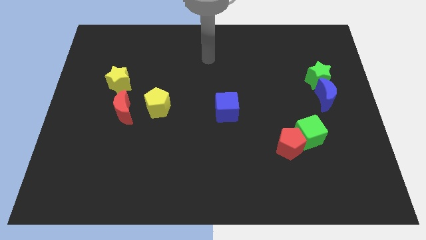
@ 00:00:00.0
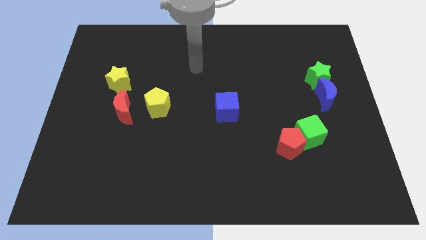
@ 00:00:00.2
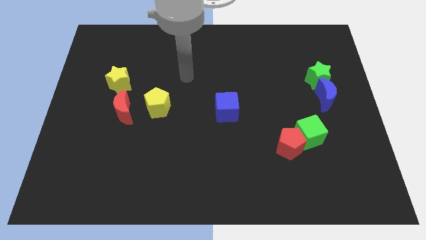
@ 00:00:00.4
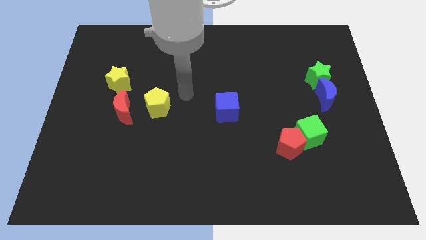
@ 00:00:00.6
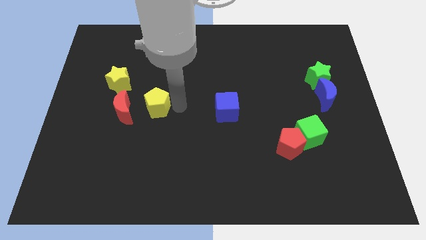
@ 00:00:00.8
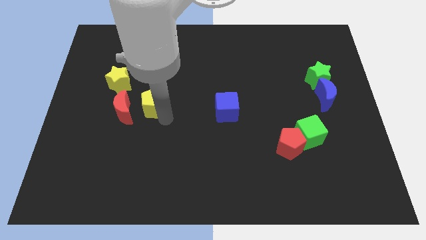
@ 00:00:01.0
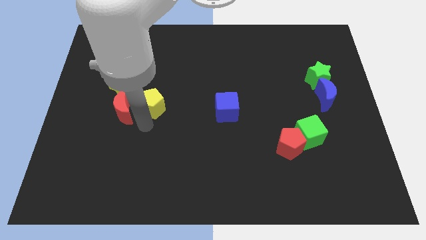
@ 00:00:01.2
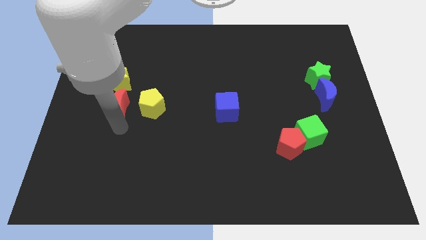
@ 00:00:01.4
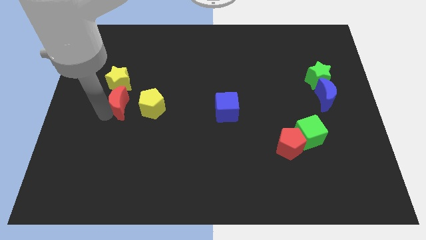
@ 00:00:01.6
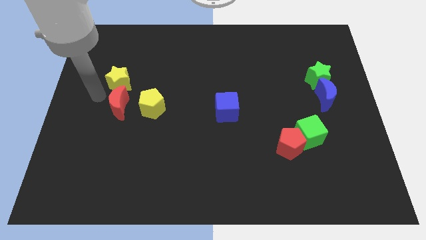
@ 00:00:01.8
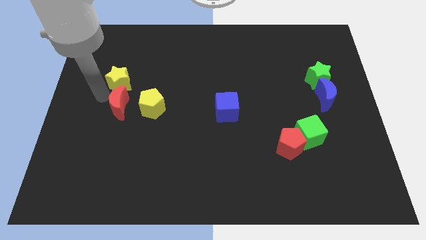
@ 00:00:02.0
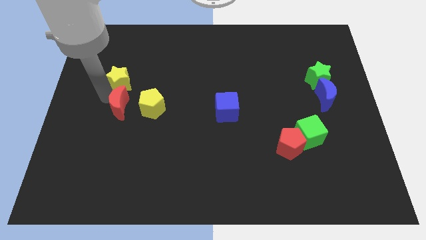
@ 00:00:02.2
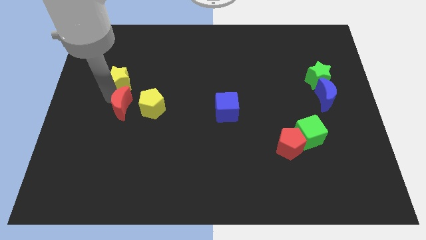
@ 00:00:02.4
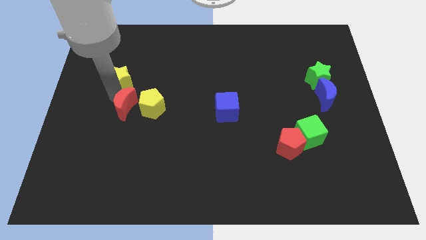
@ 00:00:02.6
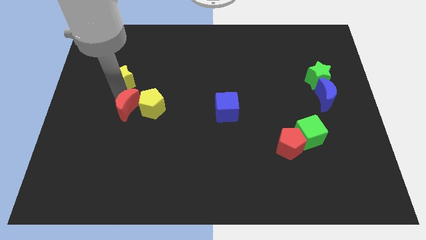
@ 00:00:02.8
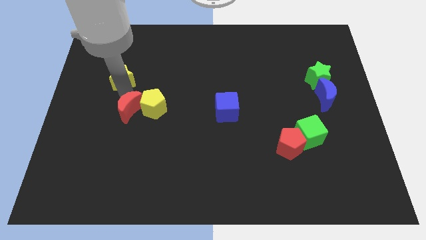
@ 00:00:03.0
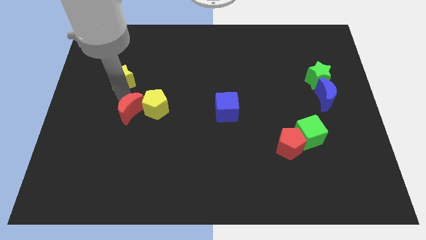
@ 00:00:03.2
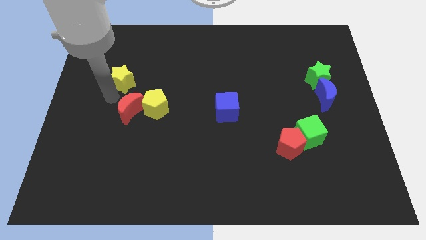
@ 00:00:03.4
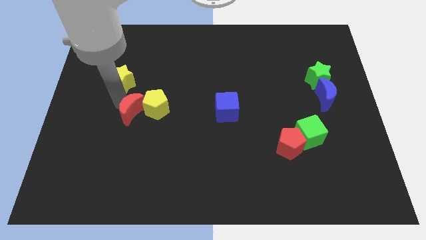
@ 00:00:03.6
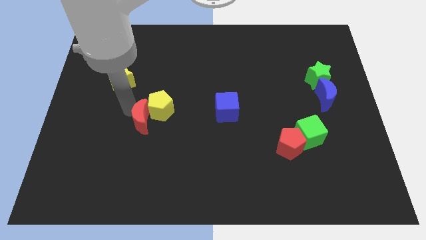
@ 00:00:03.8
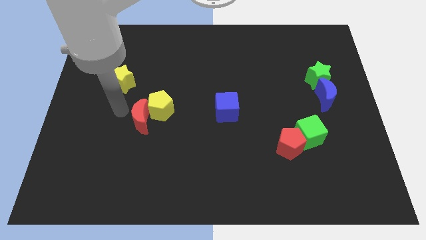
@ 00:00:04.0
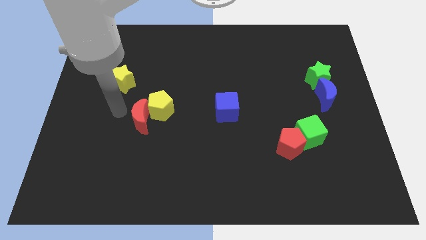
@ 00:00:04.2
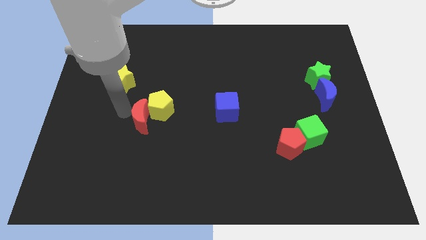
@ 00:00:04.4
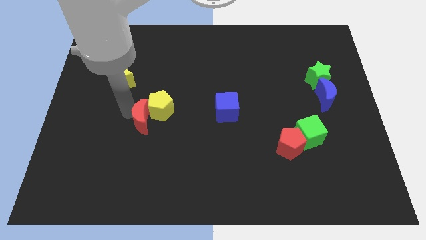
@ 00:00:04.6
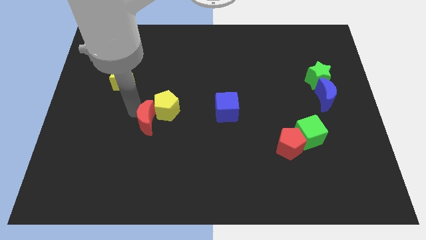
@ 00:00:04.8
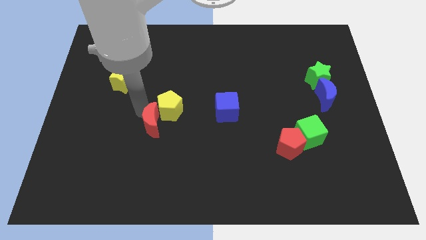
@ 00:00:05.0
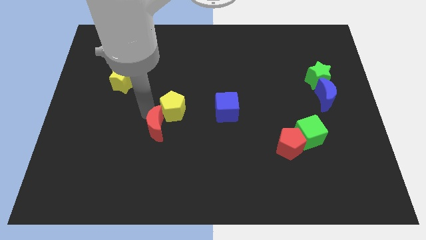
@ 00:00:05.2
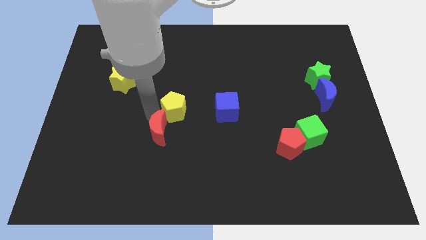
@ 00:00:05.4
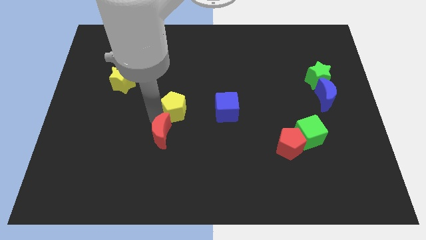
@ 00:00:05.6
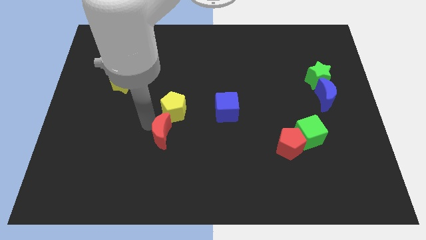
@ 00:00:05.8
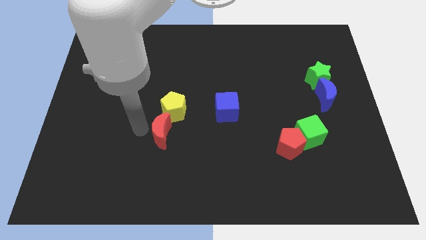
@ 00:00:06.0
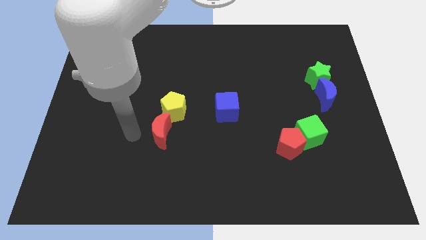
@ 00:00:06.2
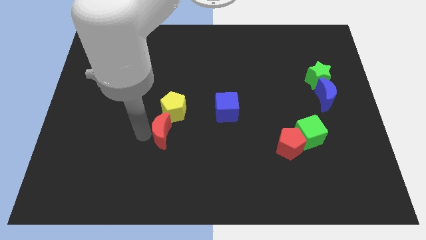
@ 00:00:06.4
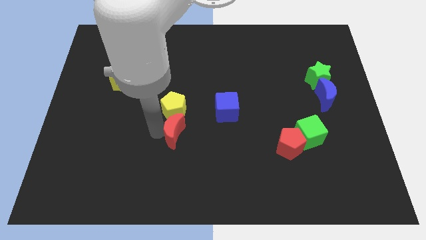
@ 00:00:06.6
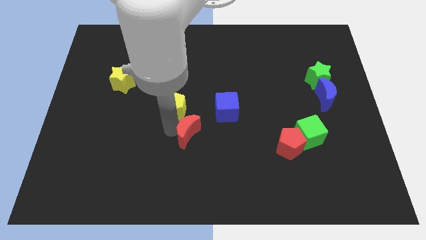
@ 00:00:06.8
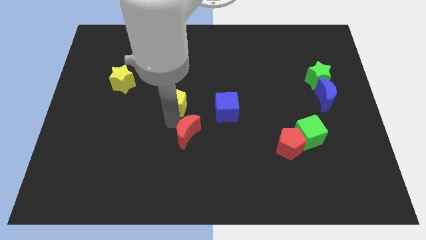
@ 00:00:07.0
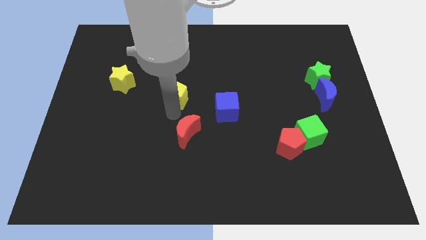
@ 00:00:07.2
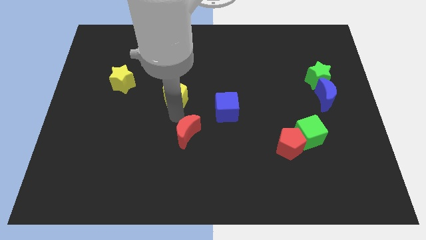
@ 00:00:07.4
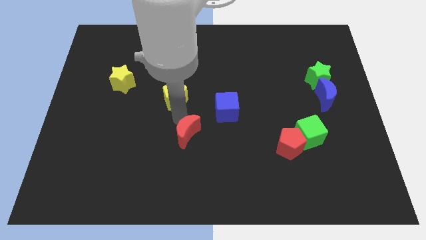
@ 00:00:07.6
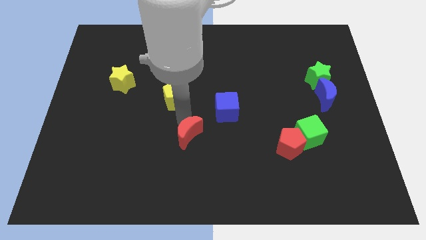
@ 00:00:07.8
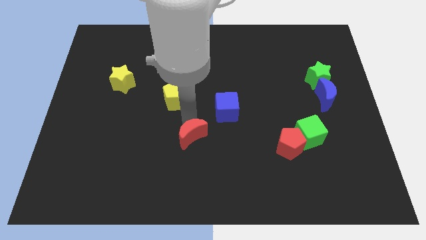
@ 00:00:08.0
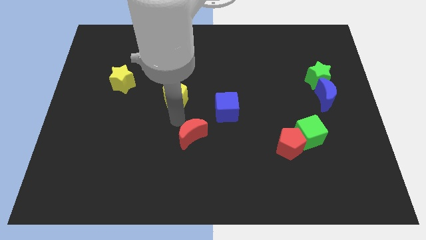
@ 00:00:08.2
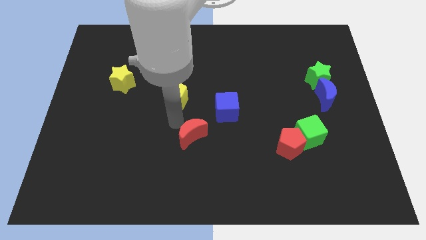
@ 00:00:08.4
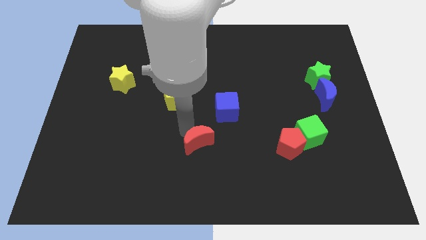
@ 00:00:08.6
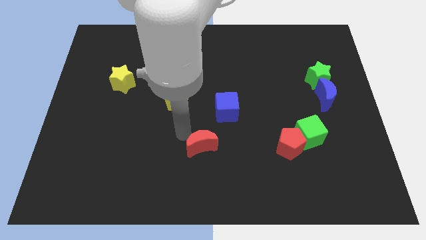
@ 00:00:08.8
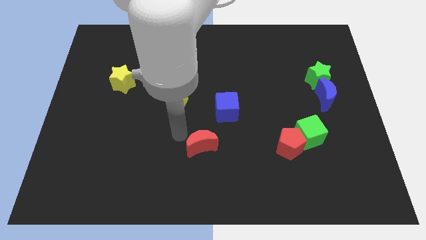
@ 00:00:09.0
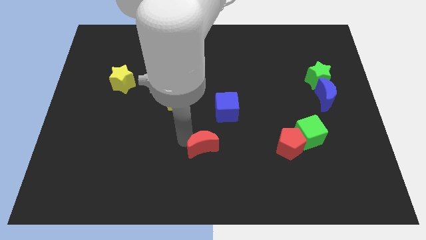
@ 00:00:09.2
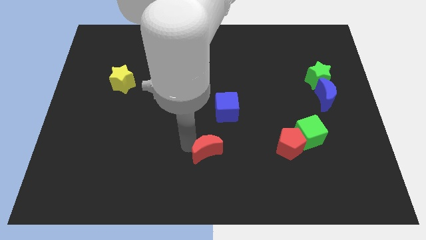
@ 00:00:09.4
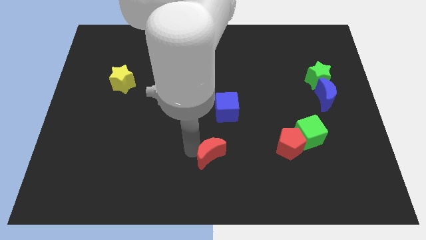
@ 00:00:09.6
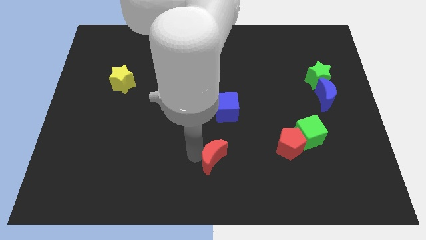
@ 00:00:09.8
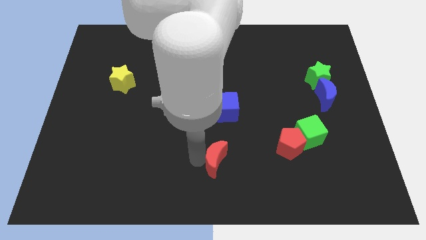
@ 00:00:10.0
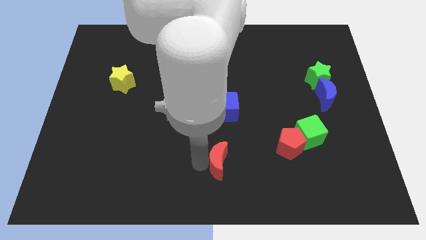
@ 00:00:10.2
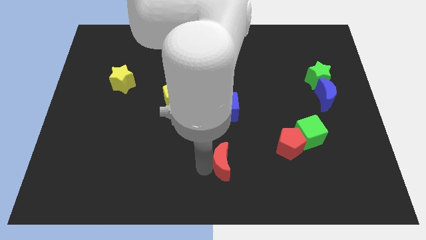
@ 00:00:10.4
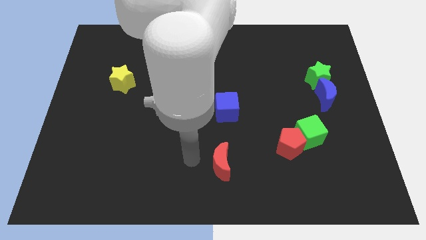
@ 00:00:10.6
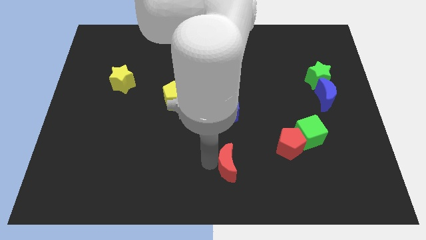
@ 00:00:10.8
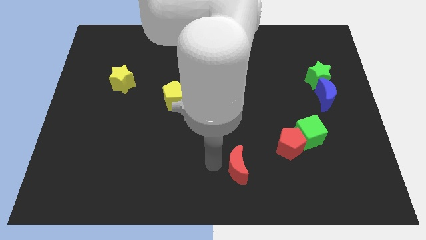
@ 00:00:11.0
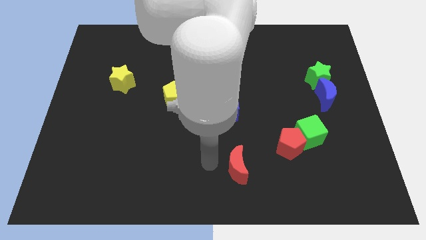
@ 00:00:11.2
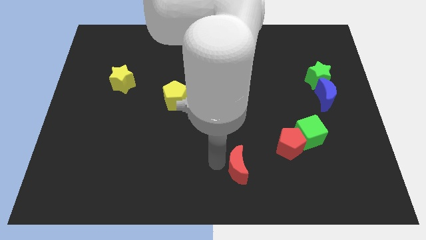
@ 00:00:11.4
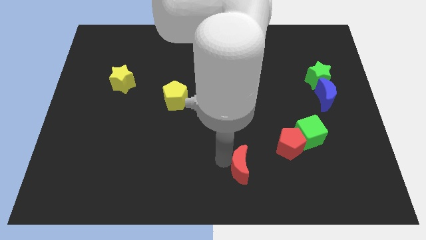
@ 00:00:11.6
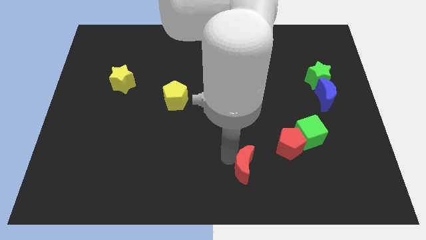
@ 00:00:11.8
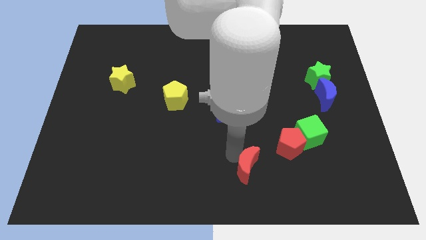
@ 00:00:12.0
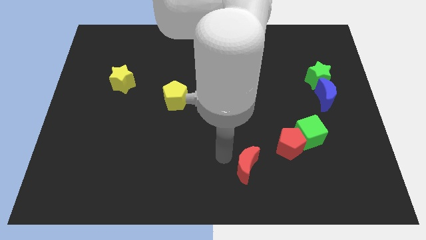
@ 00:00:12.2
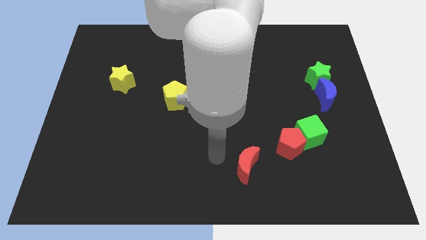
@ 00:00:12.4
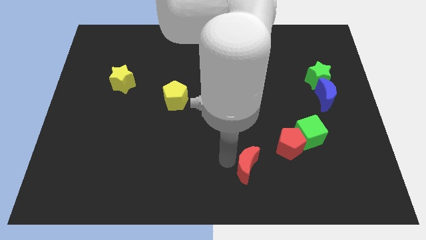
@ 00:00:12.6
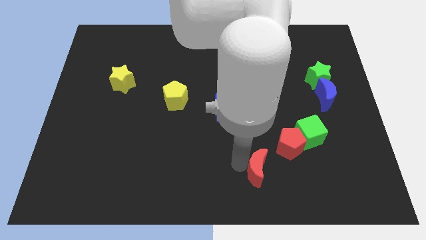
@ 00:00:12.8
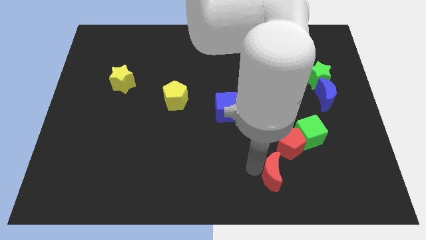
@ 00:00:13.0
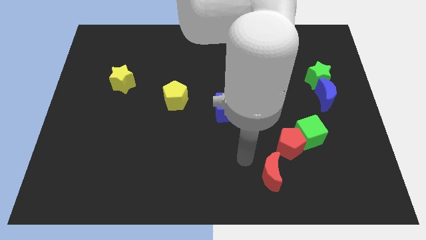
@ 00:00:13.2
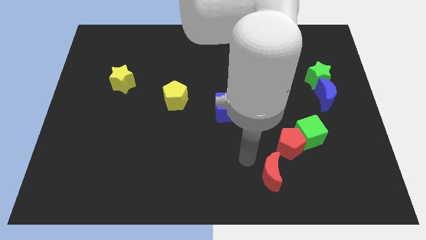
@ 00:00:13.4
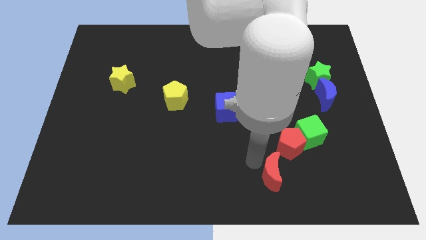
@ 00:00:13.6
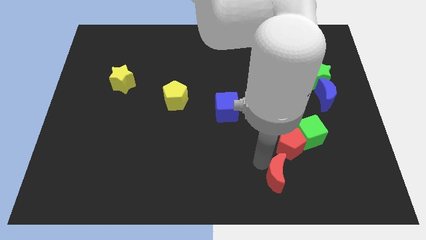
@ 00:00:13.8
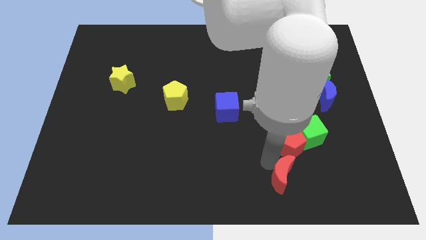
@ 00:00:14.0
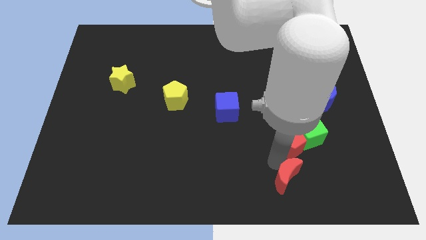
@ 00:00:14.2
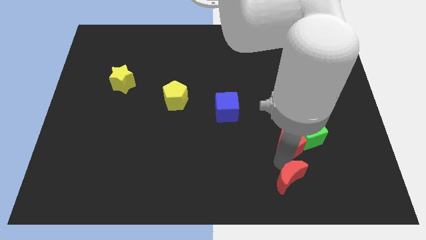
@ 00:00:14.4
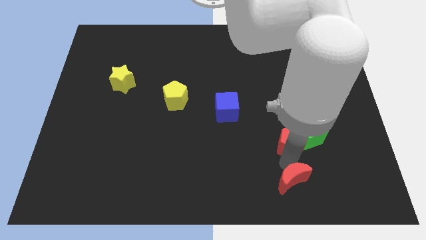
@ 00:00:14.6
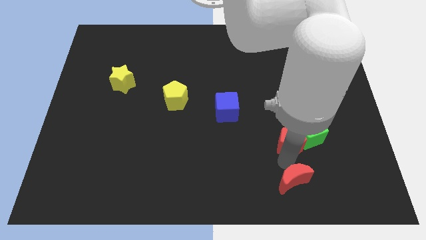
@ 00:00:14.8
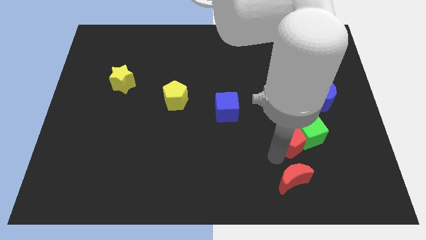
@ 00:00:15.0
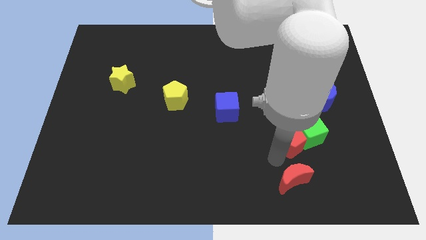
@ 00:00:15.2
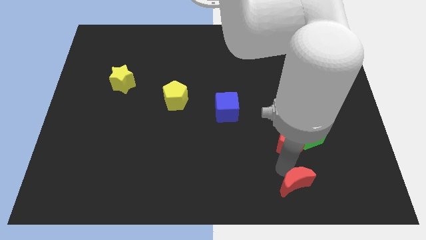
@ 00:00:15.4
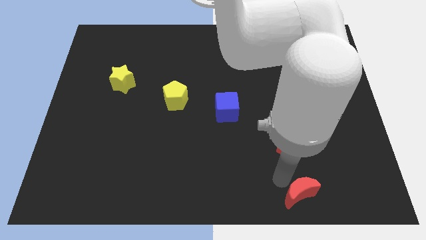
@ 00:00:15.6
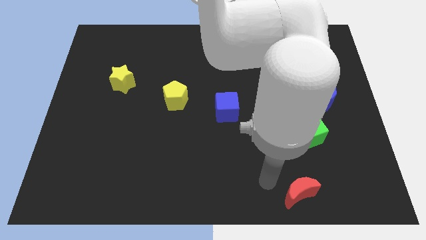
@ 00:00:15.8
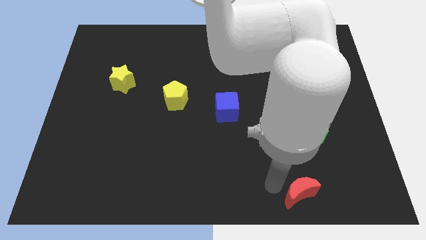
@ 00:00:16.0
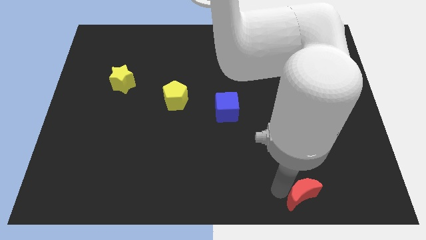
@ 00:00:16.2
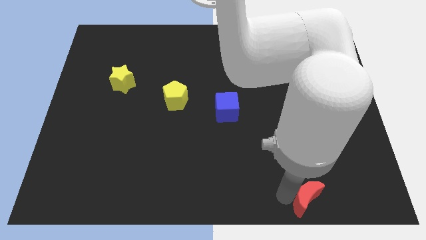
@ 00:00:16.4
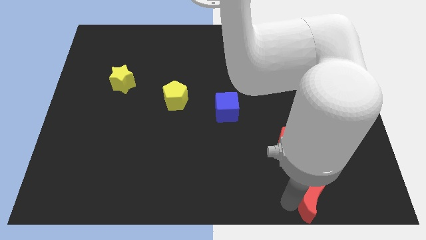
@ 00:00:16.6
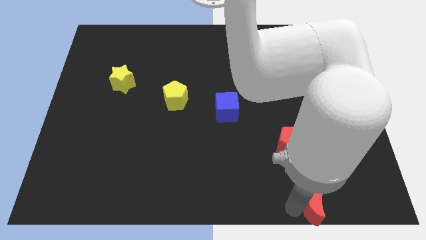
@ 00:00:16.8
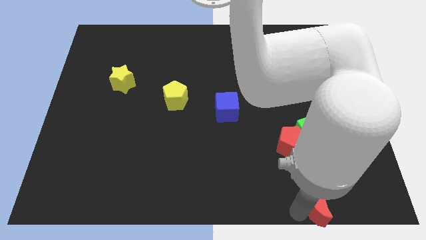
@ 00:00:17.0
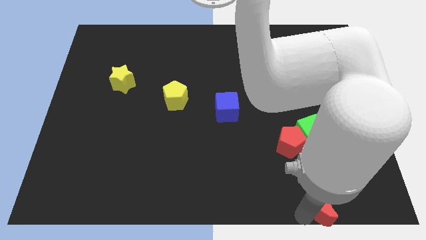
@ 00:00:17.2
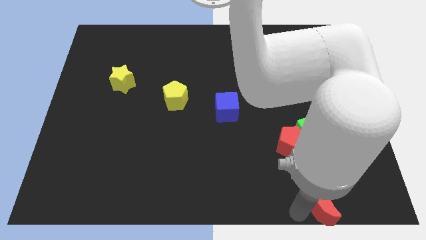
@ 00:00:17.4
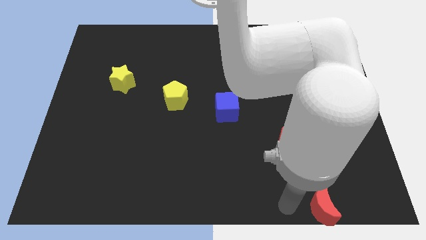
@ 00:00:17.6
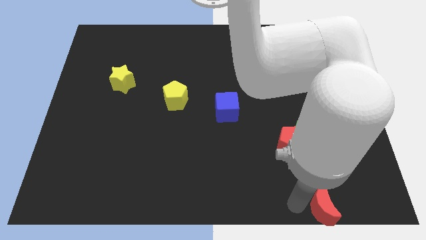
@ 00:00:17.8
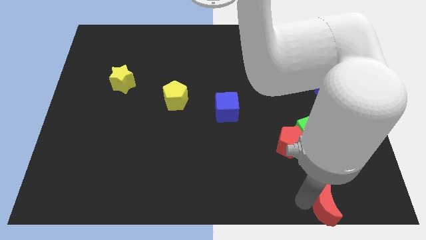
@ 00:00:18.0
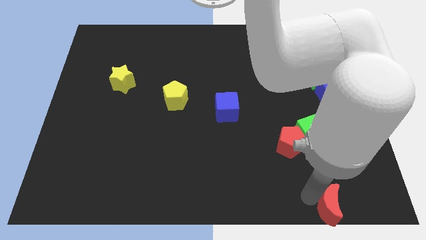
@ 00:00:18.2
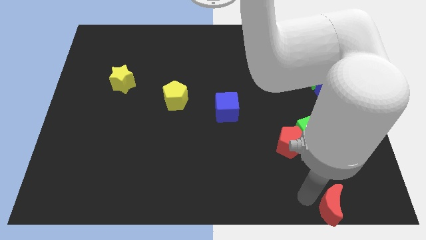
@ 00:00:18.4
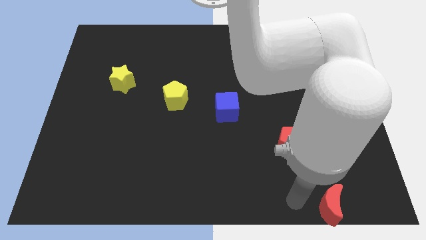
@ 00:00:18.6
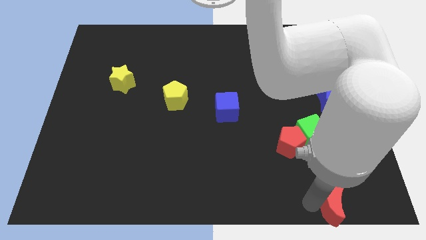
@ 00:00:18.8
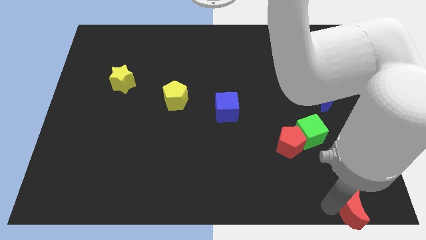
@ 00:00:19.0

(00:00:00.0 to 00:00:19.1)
push the red moon to the lower right corner
